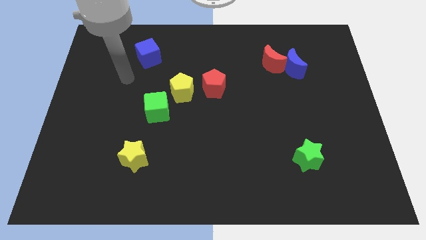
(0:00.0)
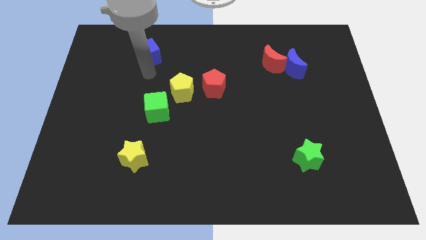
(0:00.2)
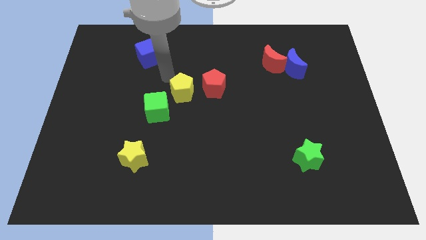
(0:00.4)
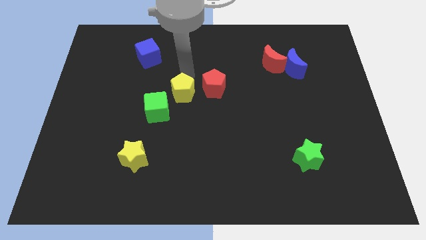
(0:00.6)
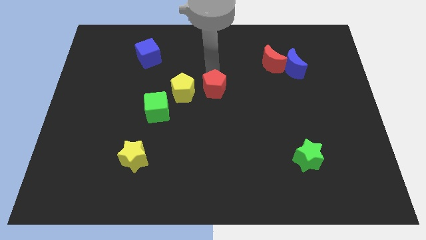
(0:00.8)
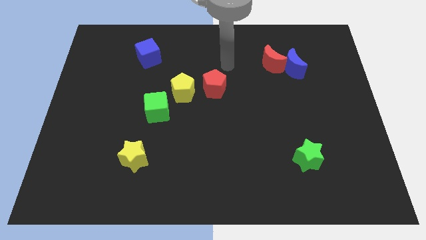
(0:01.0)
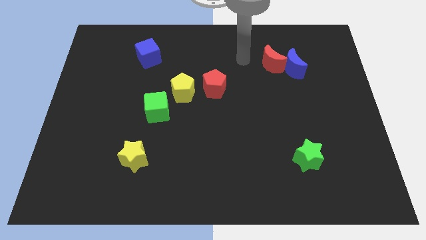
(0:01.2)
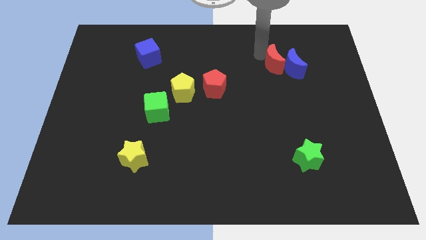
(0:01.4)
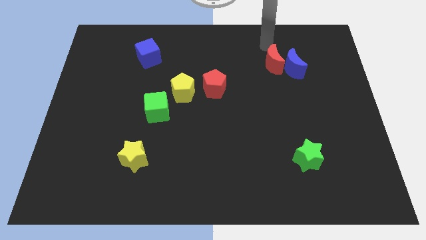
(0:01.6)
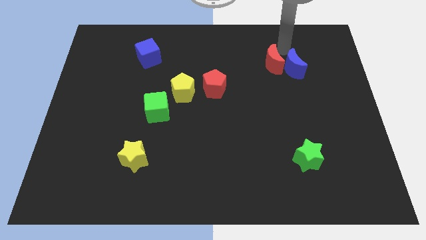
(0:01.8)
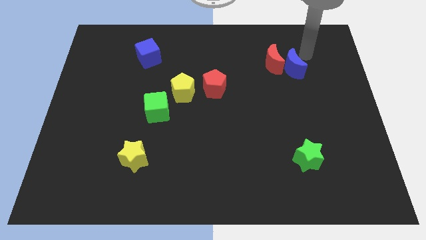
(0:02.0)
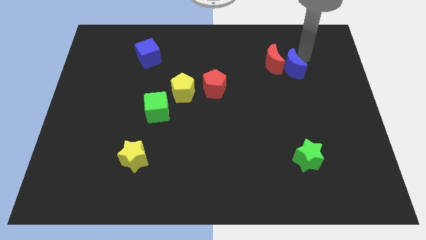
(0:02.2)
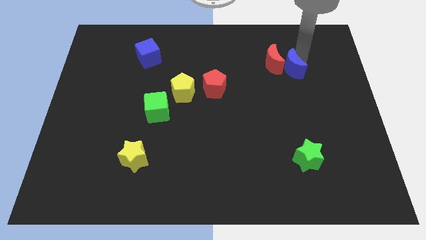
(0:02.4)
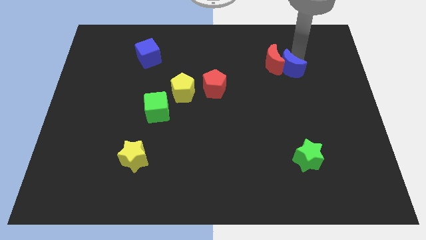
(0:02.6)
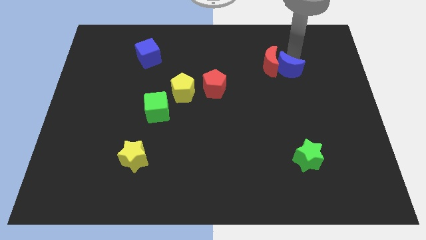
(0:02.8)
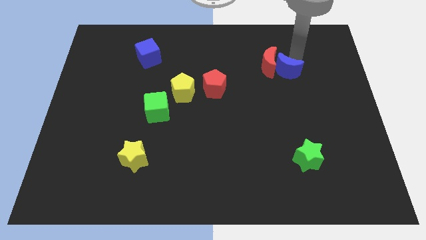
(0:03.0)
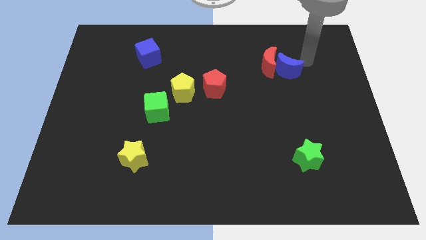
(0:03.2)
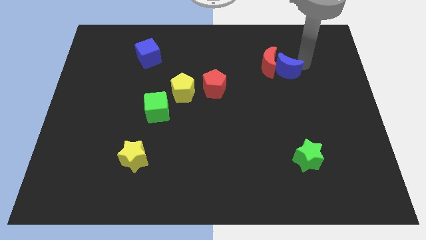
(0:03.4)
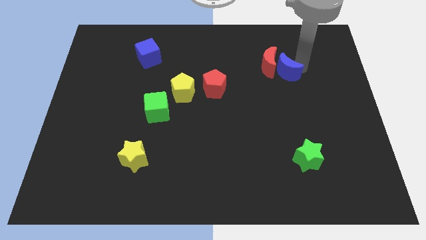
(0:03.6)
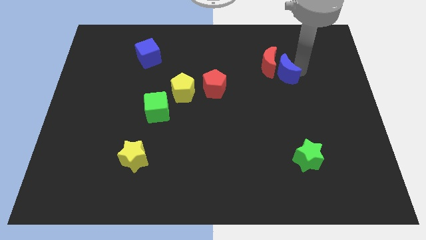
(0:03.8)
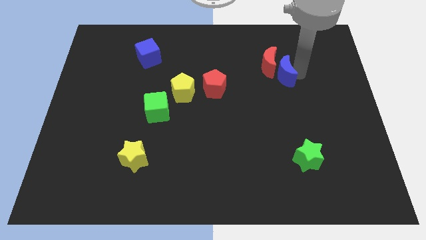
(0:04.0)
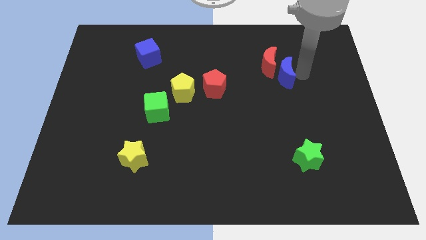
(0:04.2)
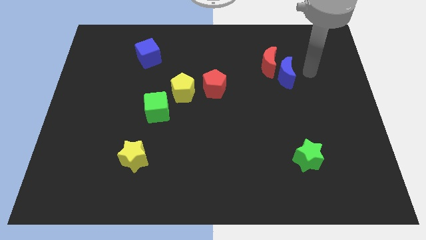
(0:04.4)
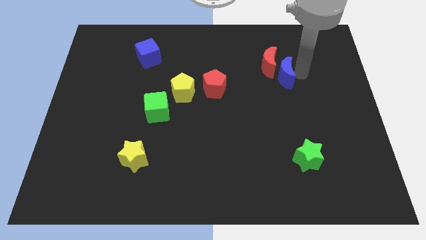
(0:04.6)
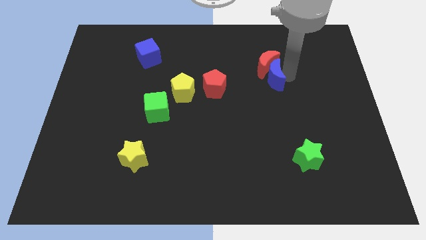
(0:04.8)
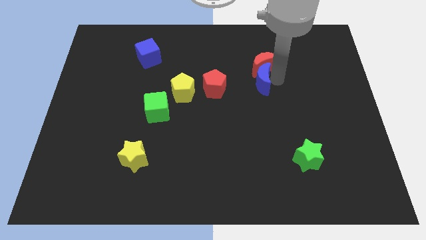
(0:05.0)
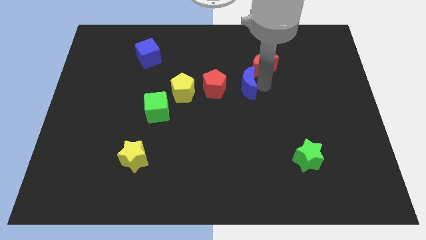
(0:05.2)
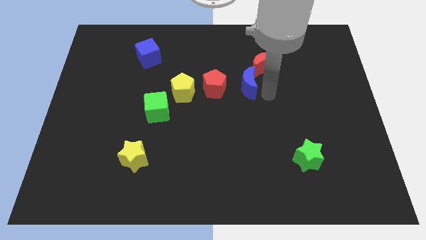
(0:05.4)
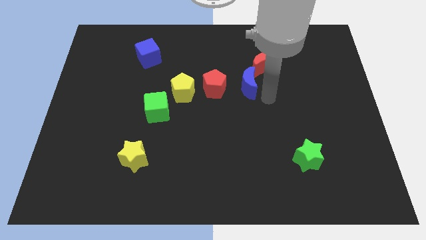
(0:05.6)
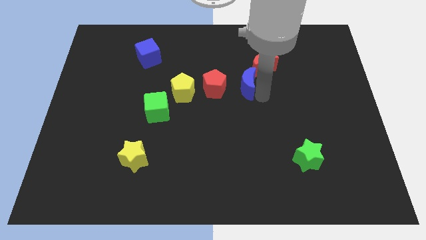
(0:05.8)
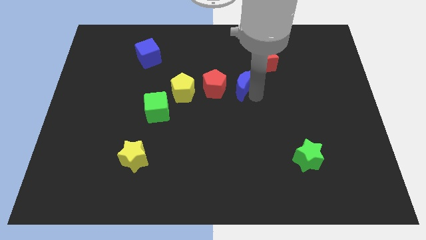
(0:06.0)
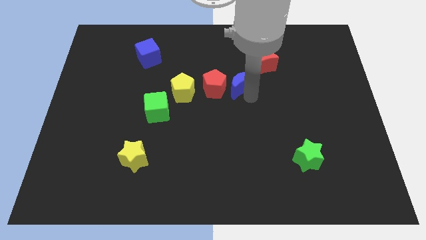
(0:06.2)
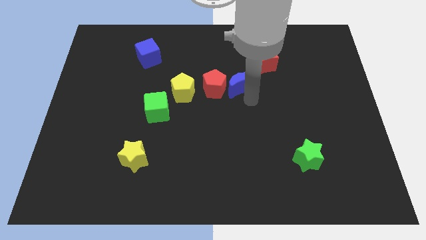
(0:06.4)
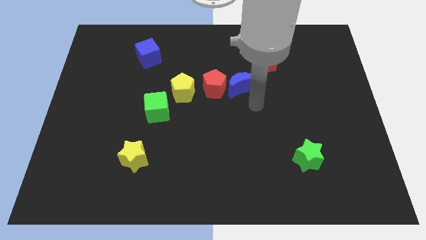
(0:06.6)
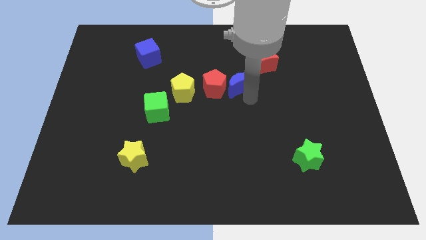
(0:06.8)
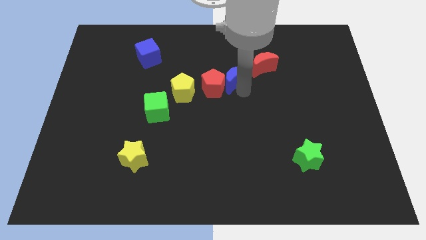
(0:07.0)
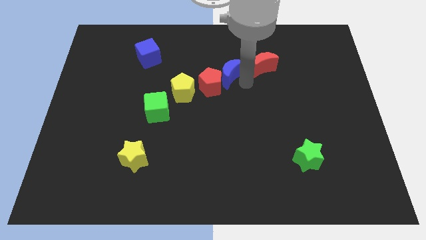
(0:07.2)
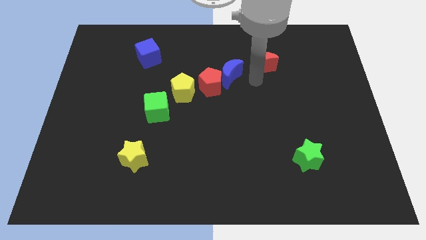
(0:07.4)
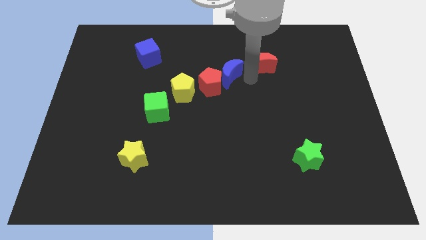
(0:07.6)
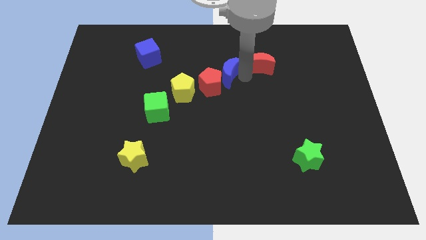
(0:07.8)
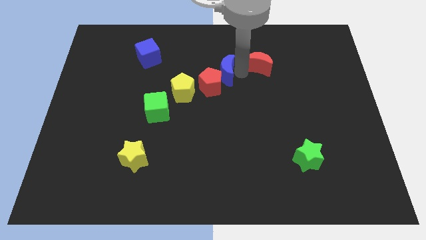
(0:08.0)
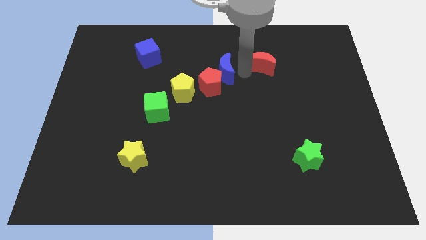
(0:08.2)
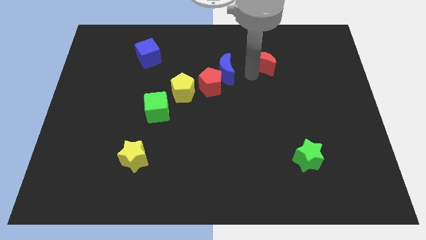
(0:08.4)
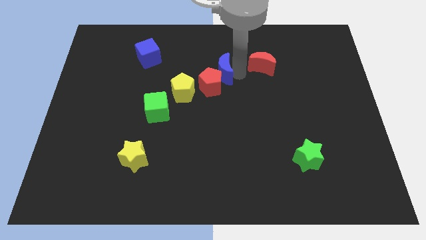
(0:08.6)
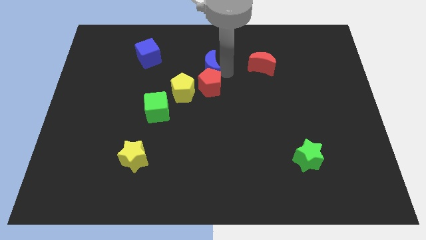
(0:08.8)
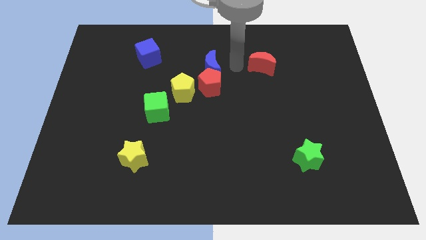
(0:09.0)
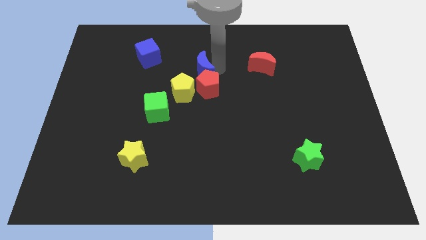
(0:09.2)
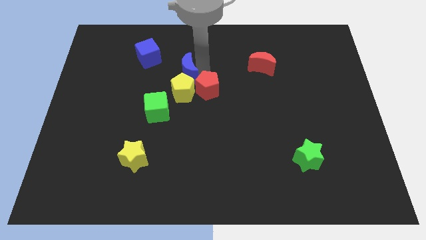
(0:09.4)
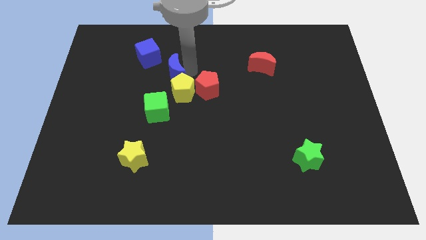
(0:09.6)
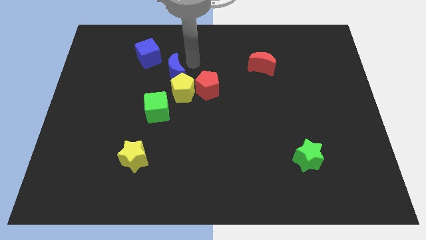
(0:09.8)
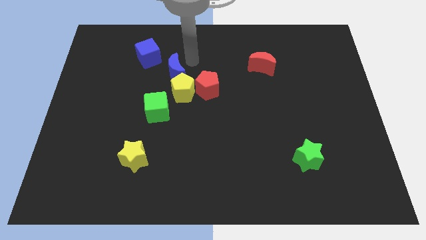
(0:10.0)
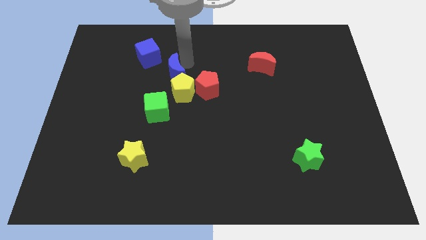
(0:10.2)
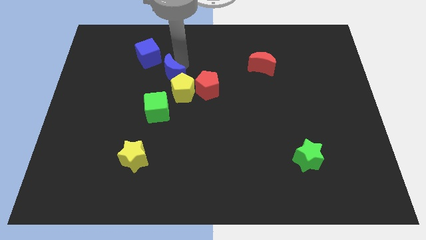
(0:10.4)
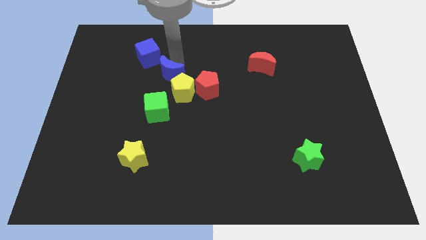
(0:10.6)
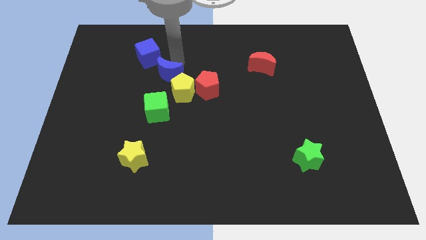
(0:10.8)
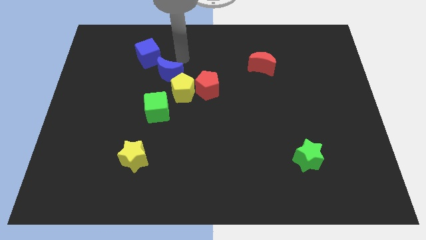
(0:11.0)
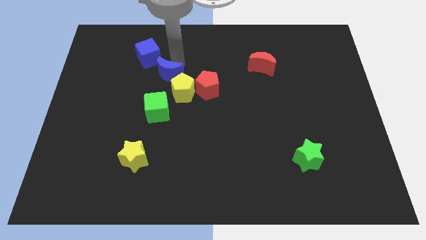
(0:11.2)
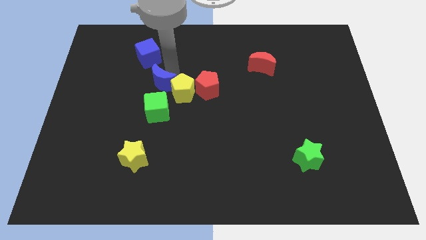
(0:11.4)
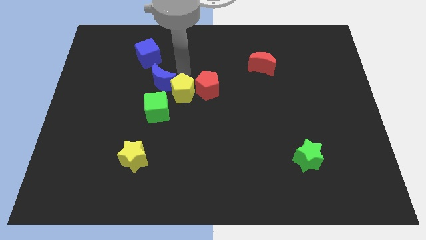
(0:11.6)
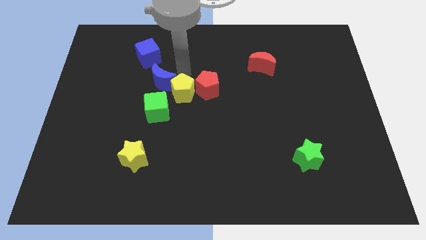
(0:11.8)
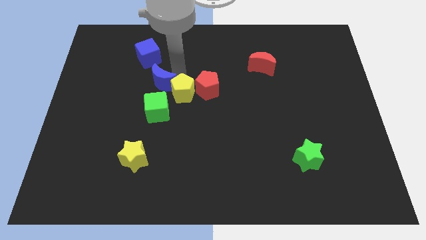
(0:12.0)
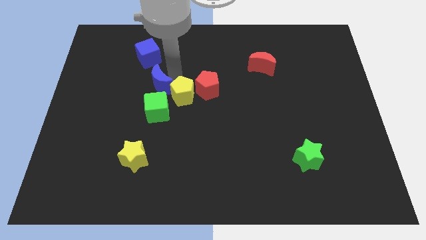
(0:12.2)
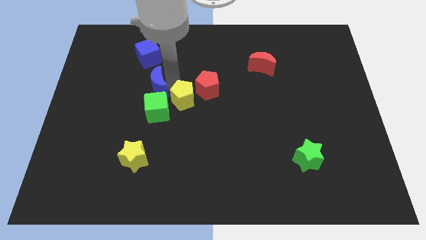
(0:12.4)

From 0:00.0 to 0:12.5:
put the blue moon diagonally up and to the left of the green cube

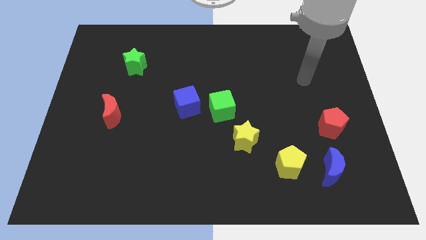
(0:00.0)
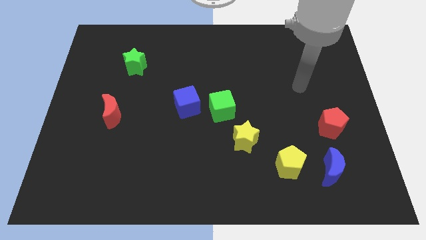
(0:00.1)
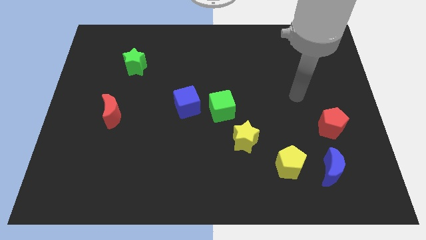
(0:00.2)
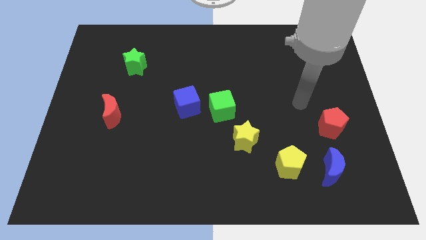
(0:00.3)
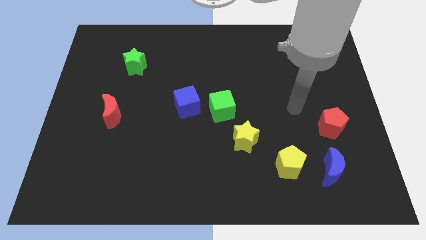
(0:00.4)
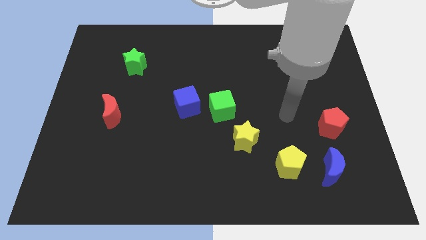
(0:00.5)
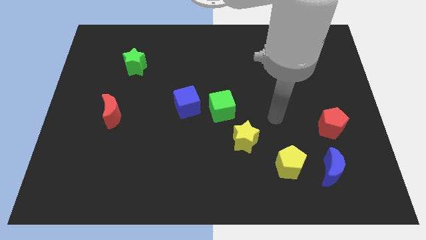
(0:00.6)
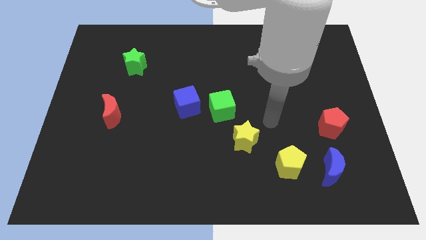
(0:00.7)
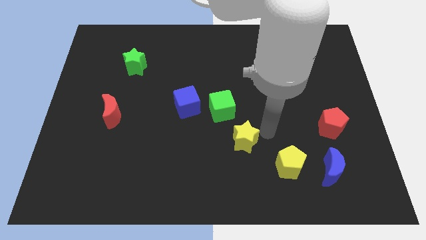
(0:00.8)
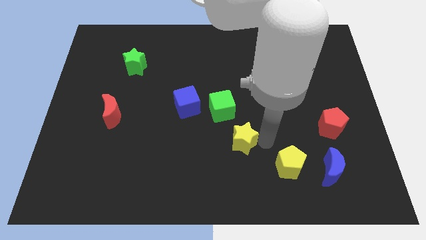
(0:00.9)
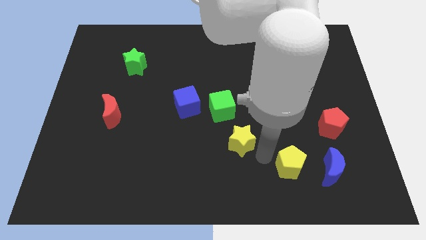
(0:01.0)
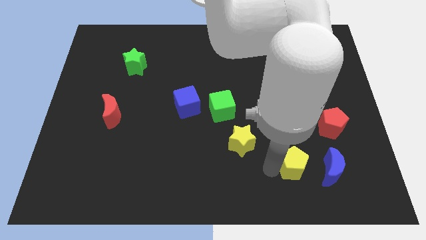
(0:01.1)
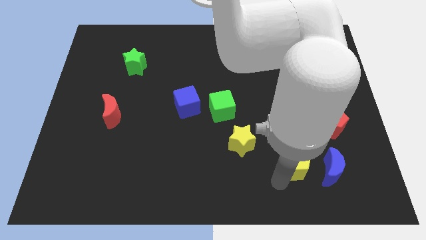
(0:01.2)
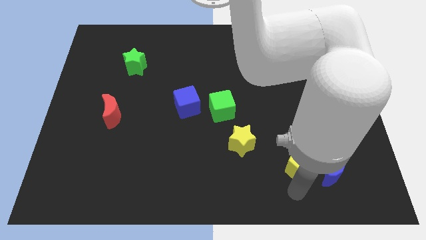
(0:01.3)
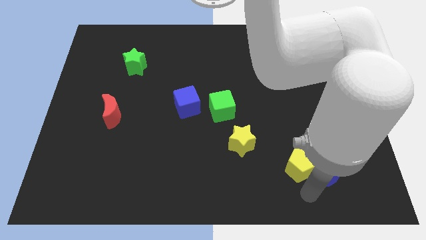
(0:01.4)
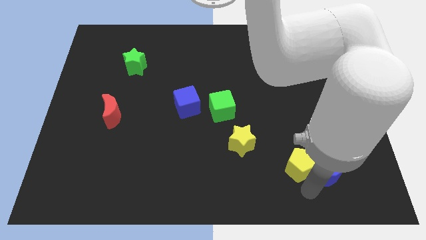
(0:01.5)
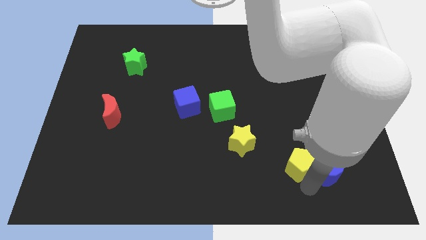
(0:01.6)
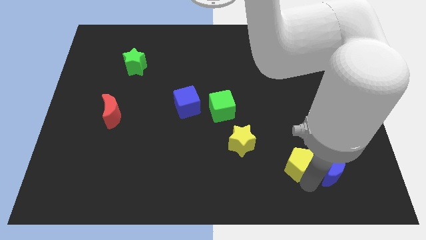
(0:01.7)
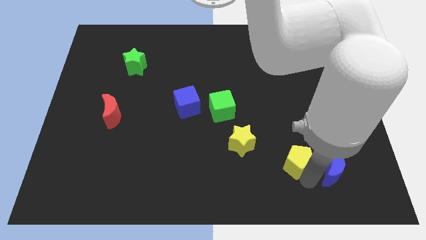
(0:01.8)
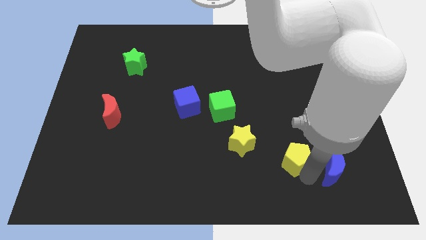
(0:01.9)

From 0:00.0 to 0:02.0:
put the yellow pentagon just right of the yellow star
